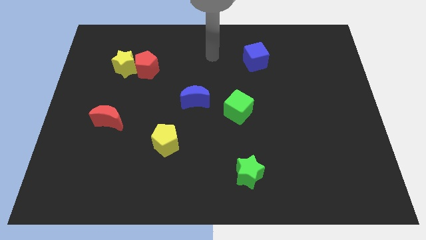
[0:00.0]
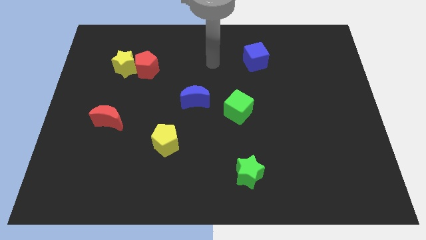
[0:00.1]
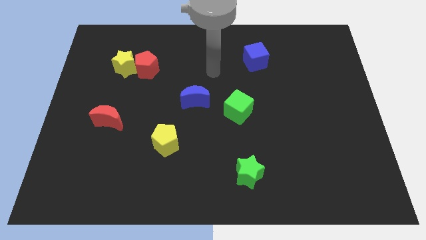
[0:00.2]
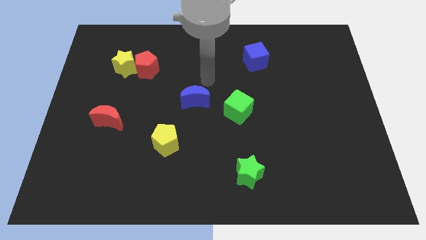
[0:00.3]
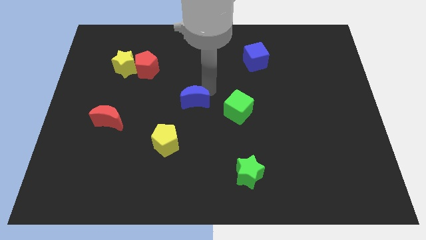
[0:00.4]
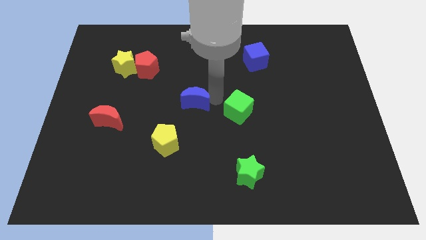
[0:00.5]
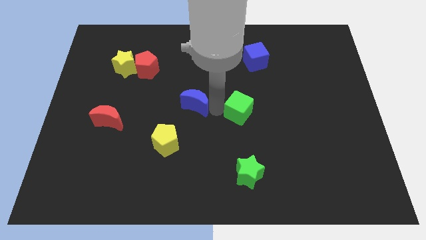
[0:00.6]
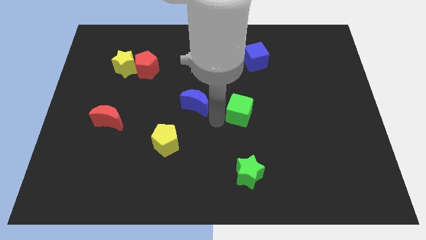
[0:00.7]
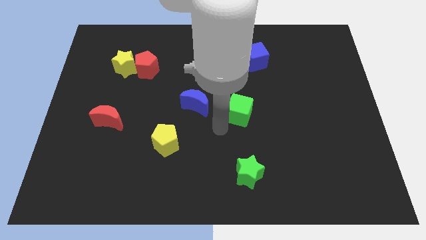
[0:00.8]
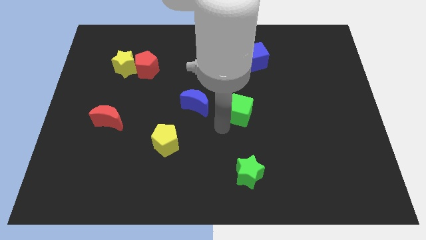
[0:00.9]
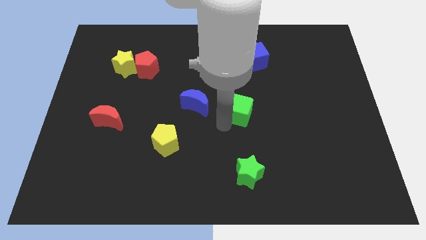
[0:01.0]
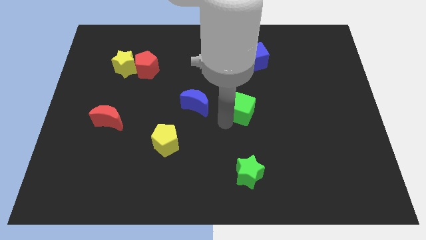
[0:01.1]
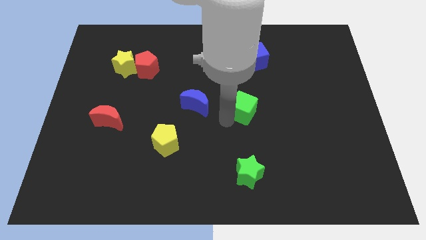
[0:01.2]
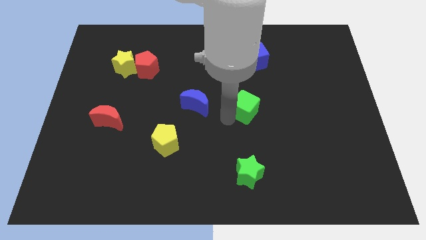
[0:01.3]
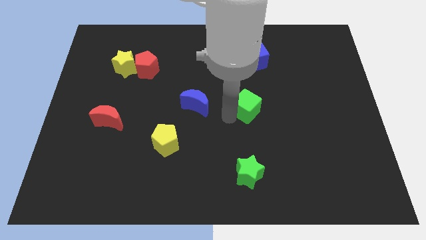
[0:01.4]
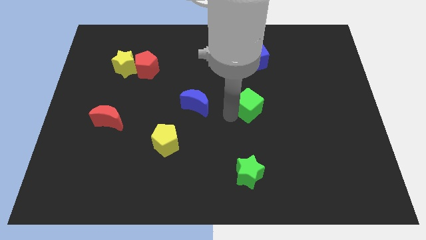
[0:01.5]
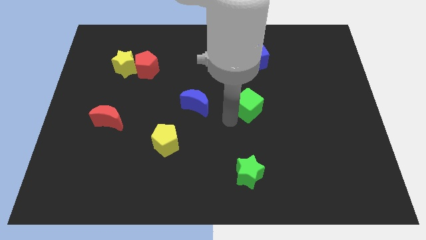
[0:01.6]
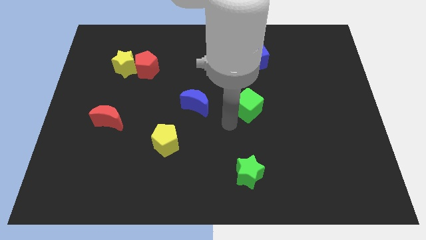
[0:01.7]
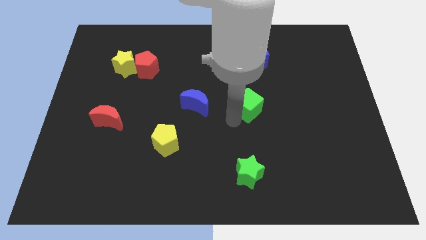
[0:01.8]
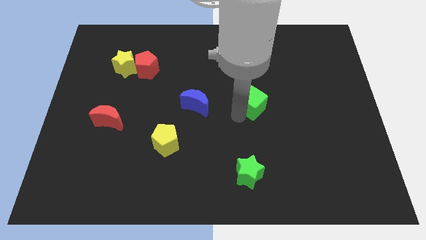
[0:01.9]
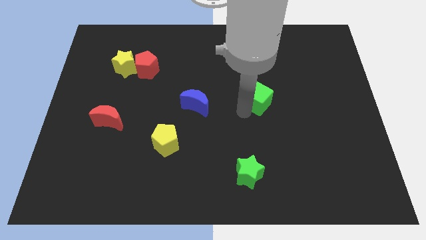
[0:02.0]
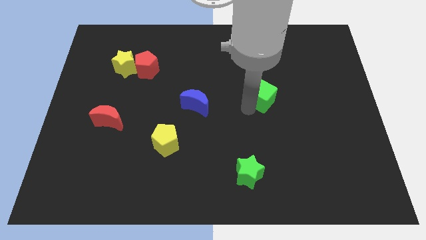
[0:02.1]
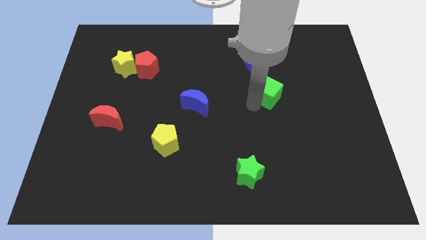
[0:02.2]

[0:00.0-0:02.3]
push the green cube a little bit up and then right

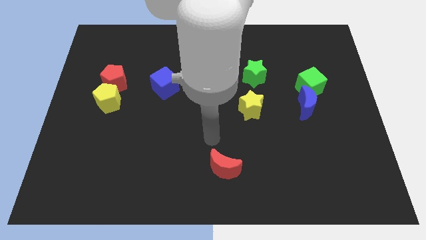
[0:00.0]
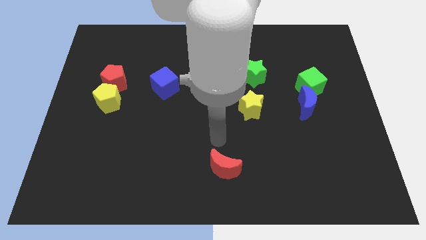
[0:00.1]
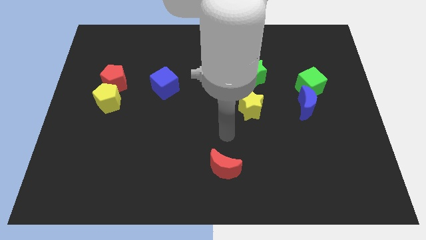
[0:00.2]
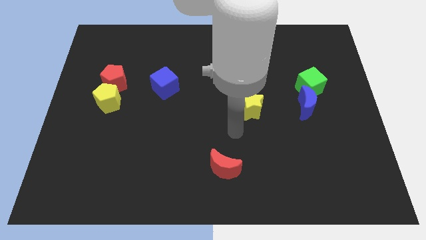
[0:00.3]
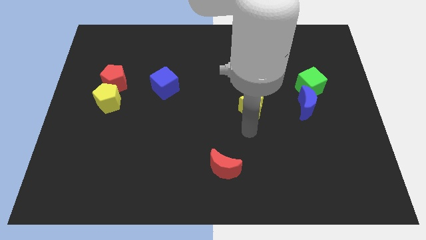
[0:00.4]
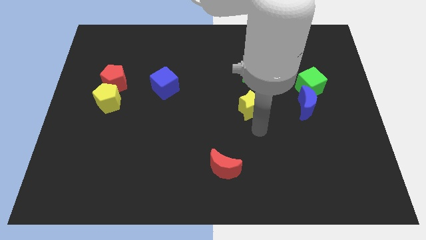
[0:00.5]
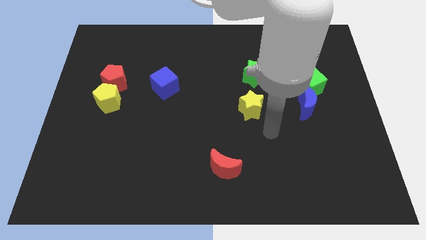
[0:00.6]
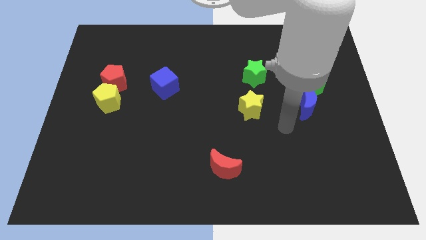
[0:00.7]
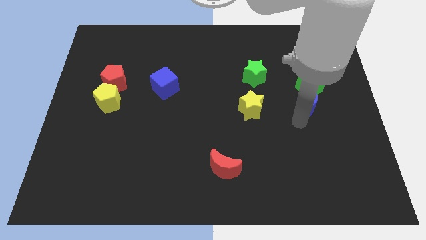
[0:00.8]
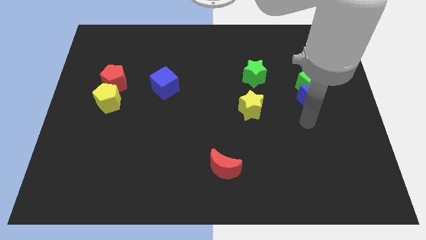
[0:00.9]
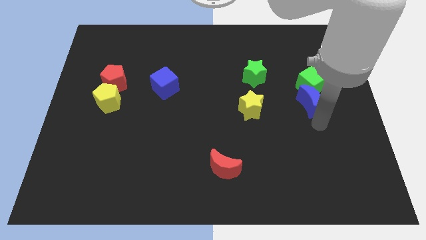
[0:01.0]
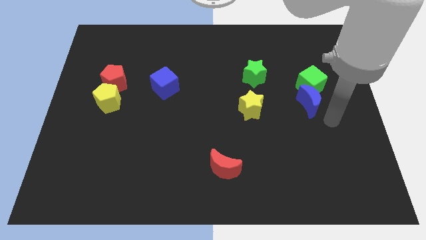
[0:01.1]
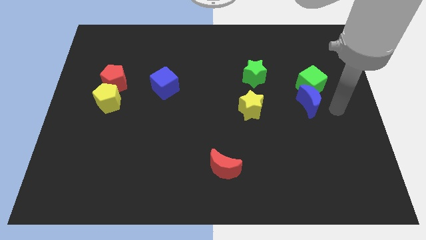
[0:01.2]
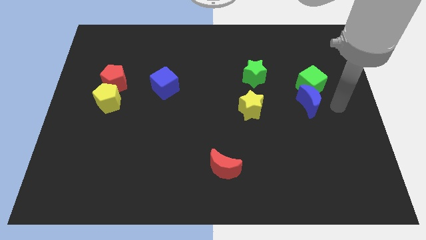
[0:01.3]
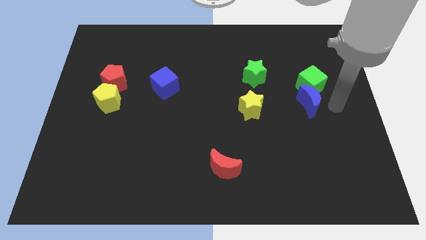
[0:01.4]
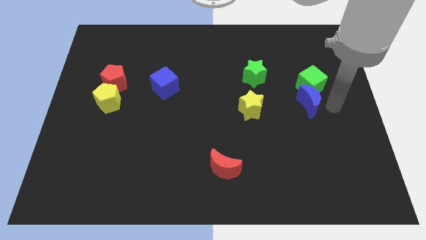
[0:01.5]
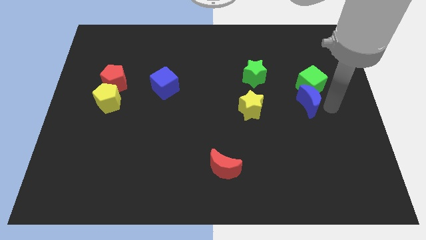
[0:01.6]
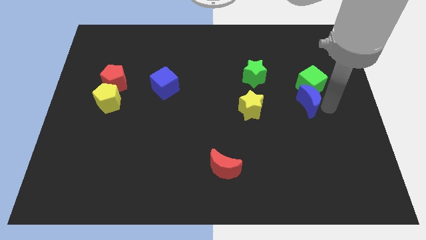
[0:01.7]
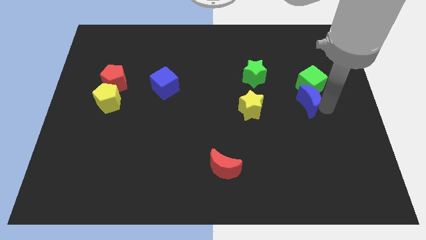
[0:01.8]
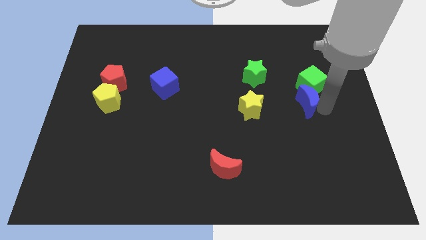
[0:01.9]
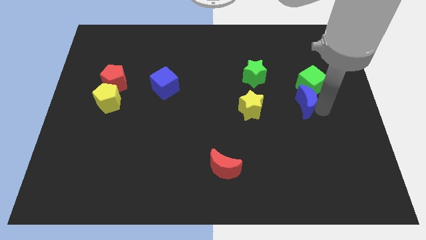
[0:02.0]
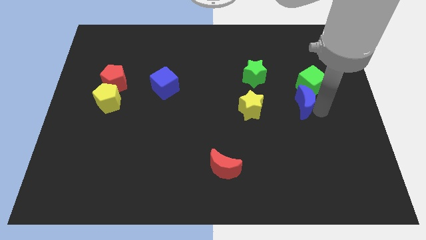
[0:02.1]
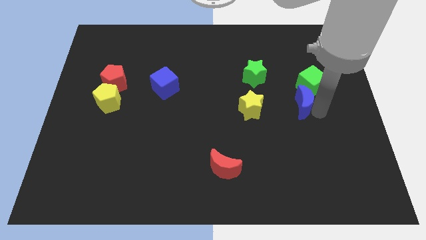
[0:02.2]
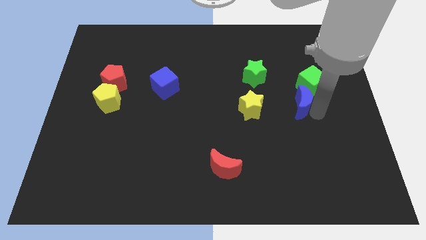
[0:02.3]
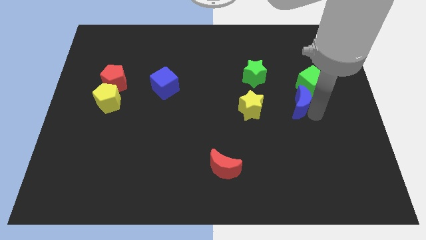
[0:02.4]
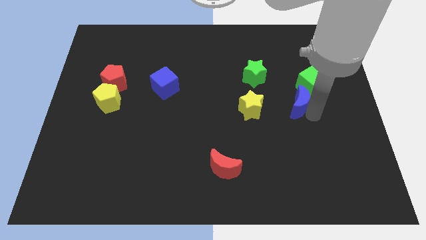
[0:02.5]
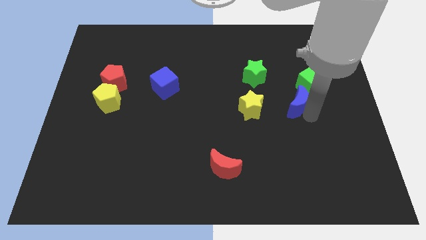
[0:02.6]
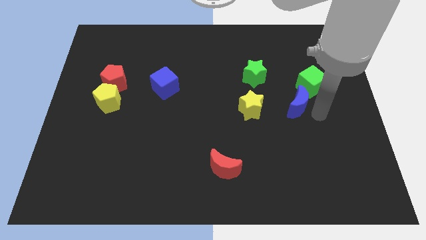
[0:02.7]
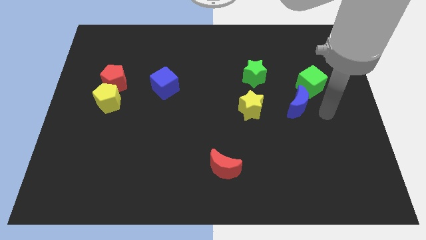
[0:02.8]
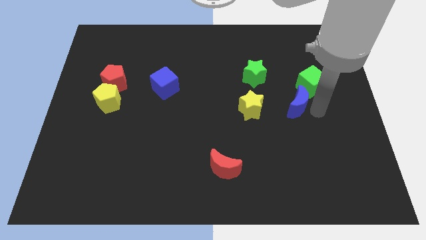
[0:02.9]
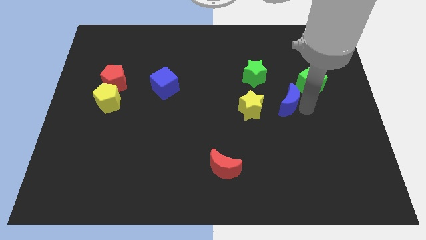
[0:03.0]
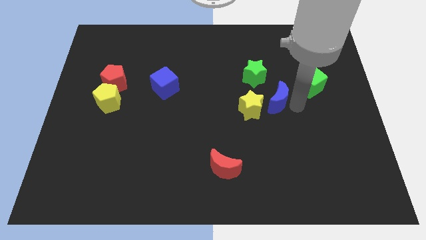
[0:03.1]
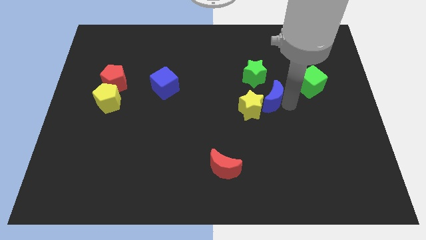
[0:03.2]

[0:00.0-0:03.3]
slightly move the blue moon to the left

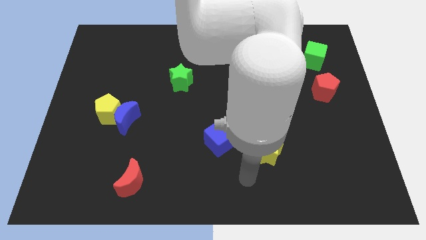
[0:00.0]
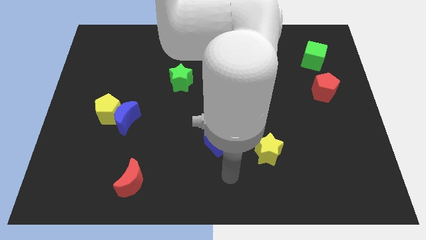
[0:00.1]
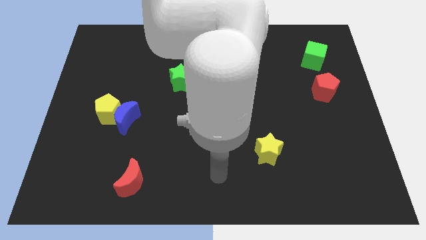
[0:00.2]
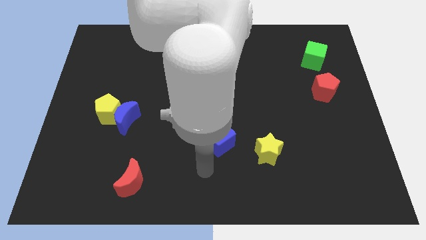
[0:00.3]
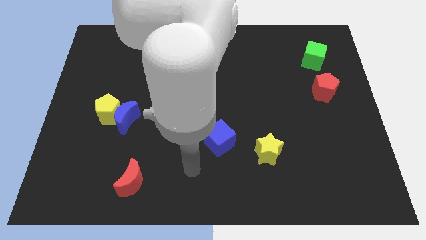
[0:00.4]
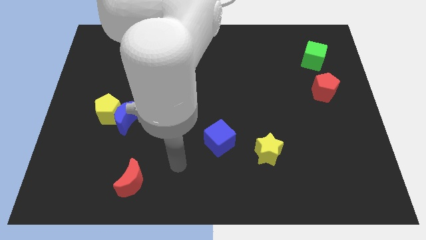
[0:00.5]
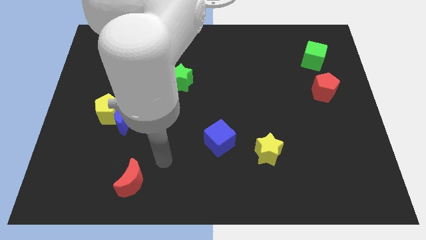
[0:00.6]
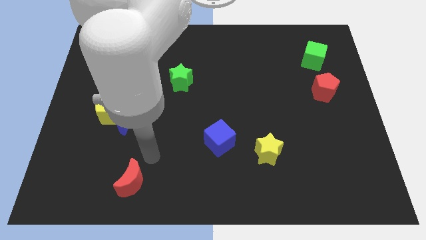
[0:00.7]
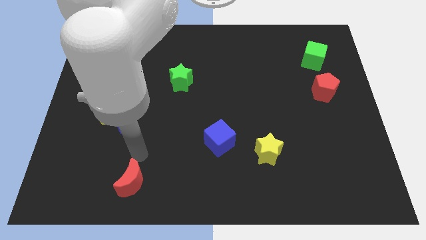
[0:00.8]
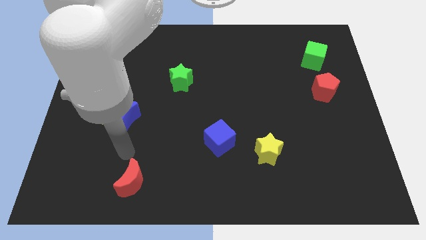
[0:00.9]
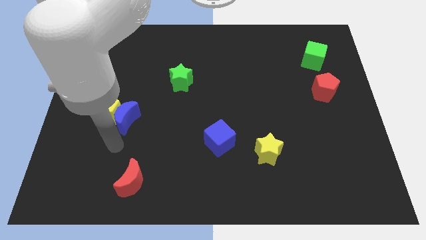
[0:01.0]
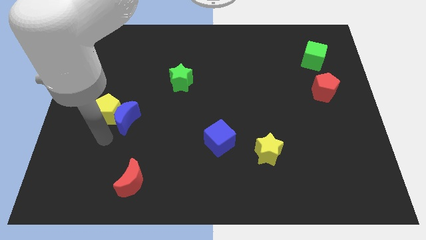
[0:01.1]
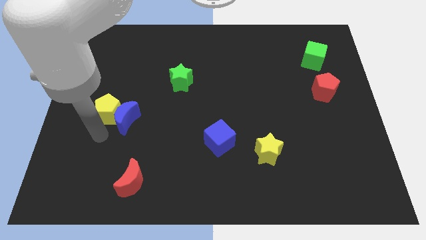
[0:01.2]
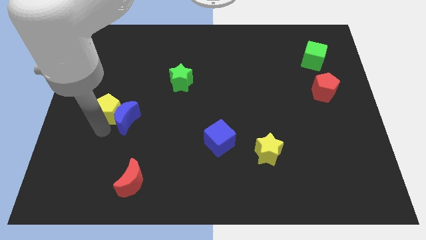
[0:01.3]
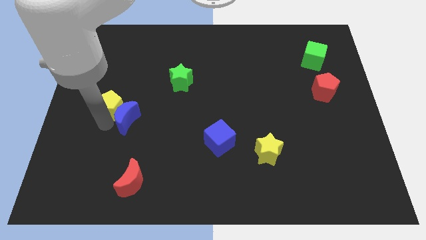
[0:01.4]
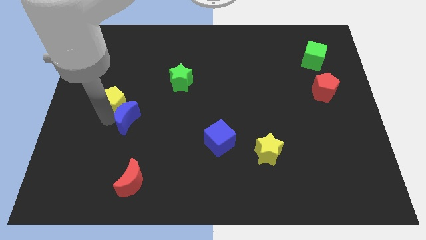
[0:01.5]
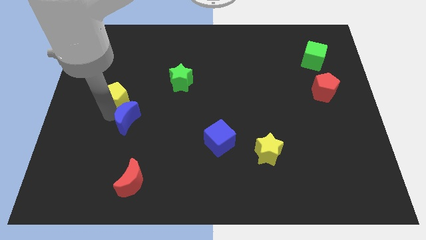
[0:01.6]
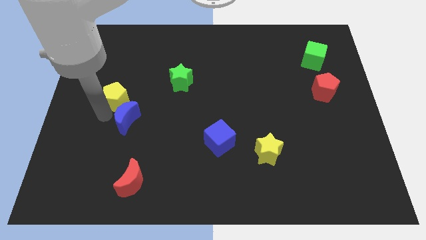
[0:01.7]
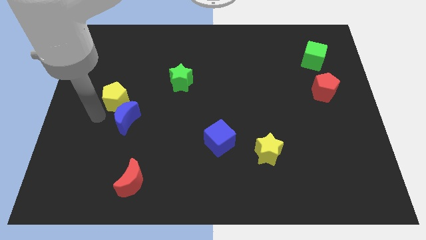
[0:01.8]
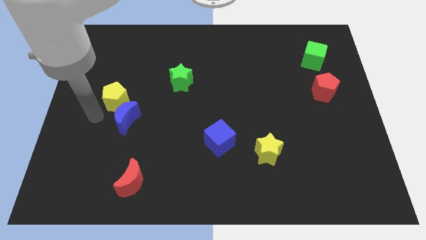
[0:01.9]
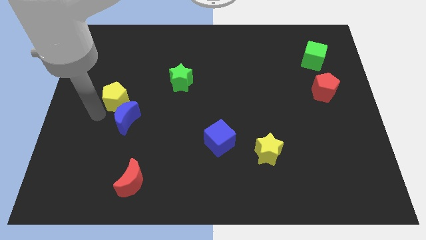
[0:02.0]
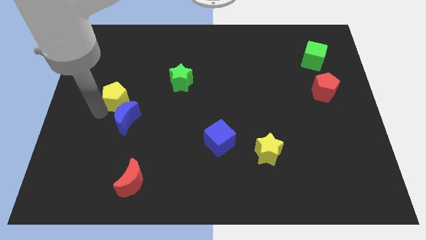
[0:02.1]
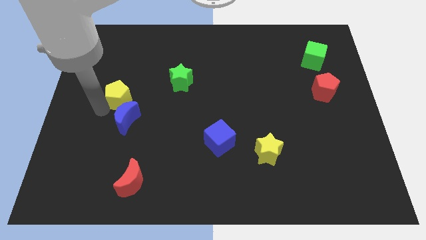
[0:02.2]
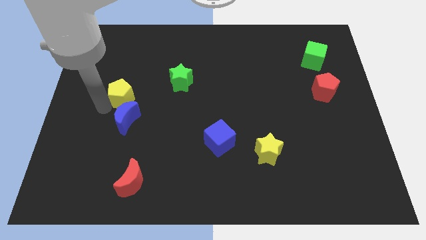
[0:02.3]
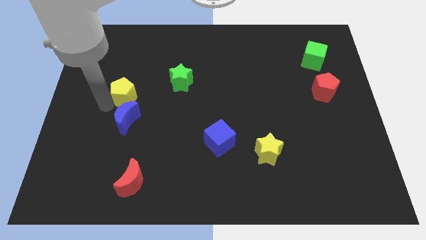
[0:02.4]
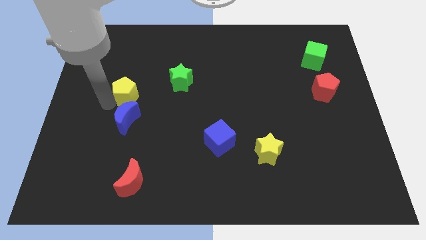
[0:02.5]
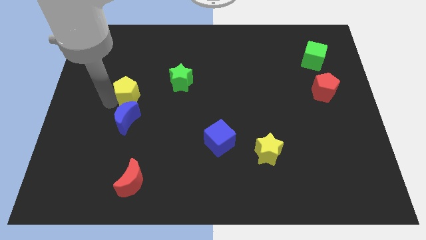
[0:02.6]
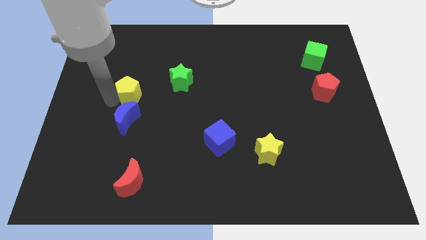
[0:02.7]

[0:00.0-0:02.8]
slightly push the yellow pentagon up and to the right diagonally
